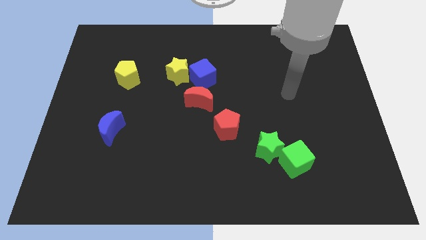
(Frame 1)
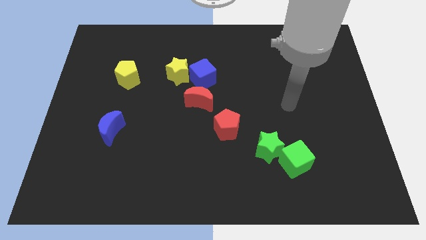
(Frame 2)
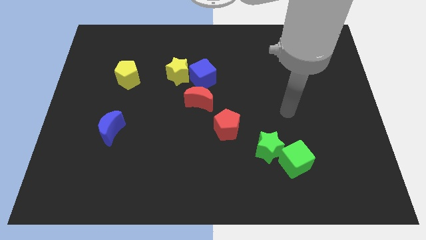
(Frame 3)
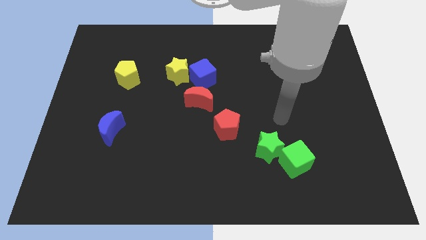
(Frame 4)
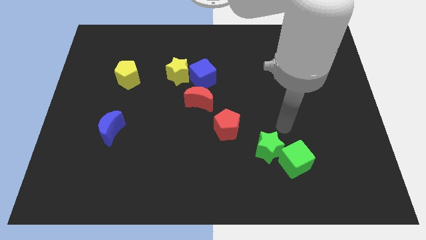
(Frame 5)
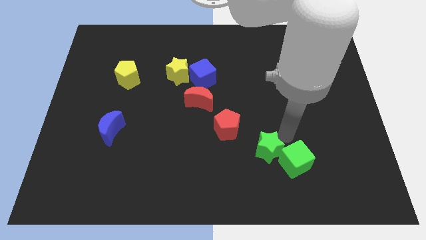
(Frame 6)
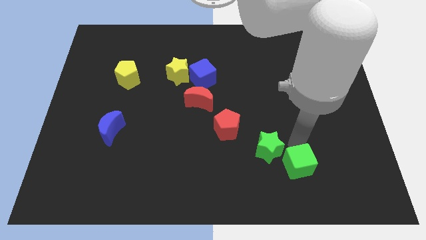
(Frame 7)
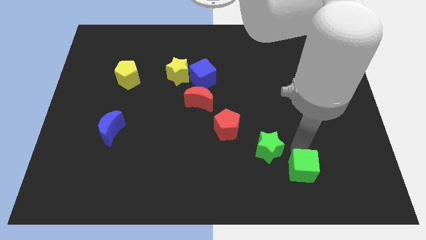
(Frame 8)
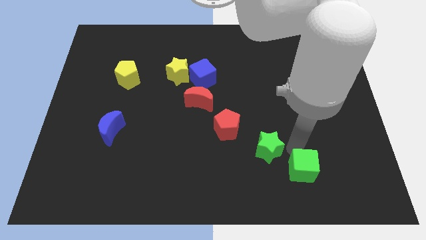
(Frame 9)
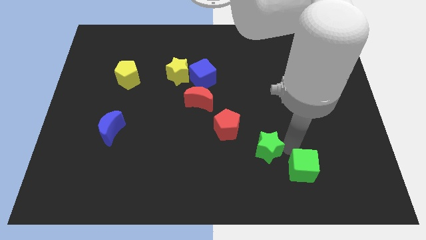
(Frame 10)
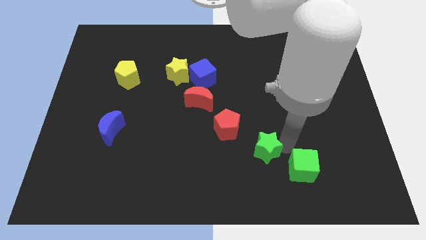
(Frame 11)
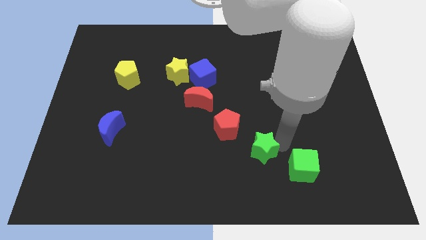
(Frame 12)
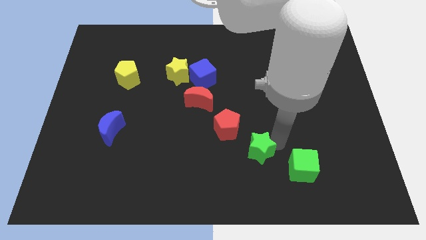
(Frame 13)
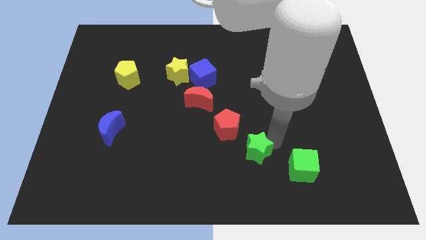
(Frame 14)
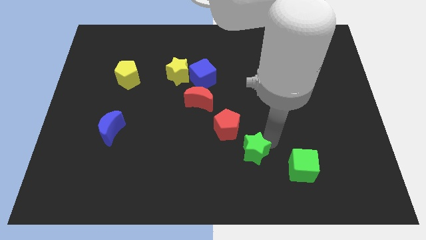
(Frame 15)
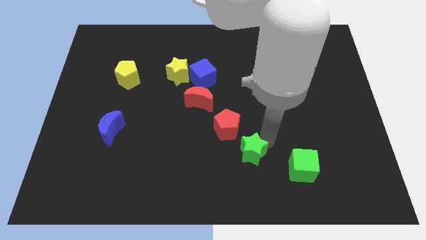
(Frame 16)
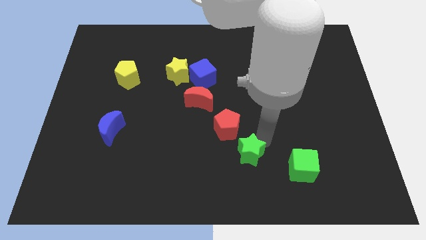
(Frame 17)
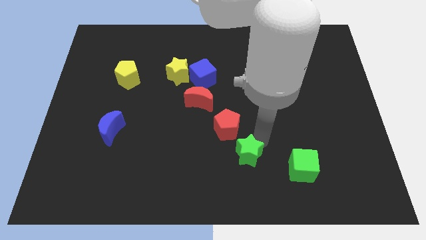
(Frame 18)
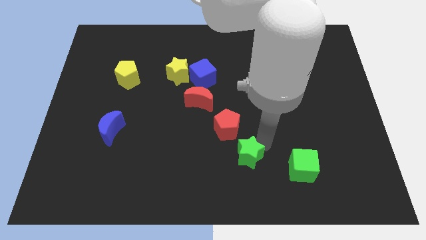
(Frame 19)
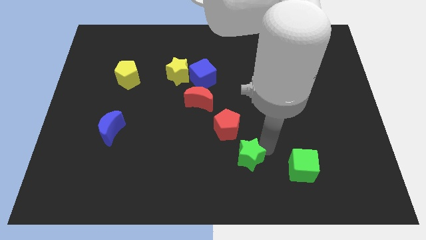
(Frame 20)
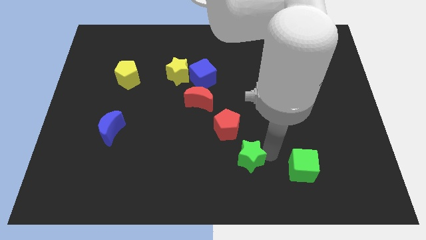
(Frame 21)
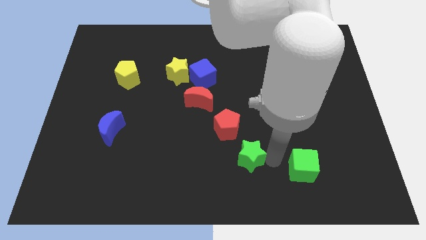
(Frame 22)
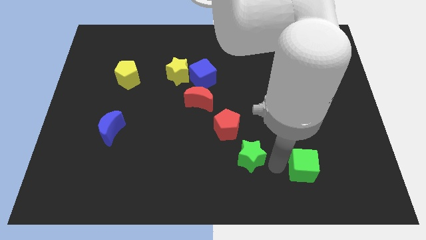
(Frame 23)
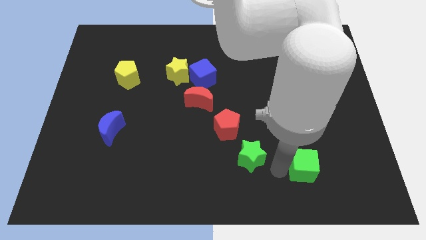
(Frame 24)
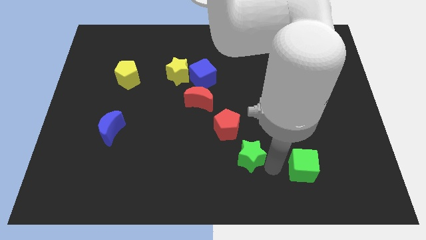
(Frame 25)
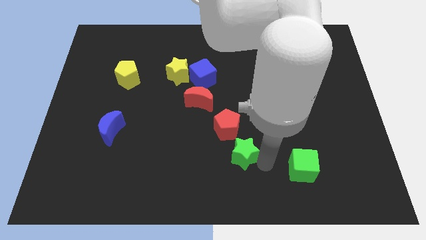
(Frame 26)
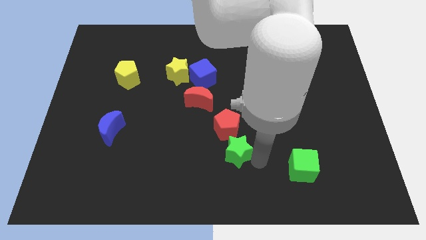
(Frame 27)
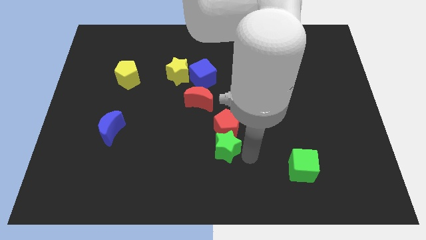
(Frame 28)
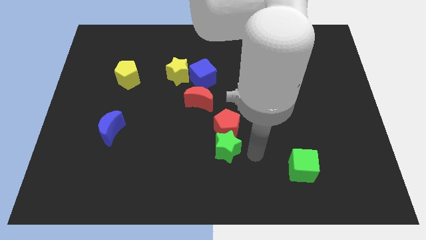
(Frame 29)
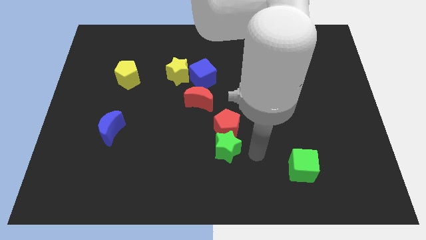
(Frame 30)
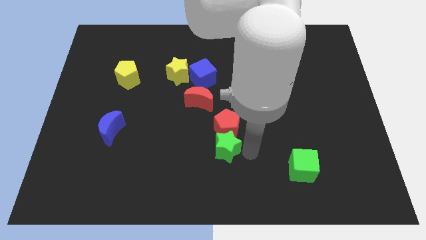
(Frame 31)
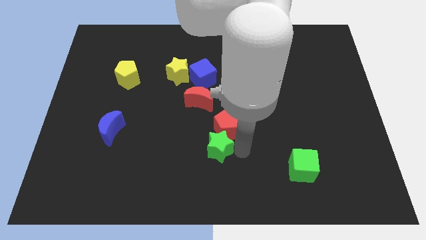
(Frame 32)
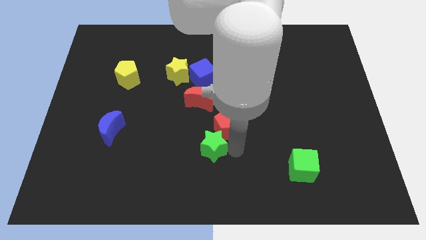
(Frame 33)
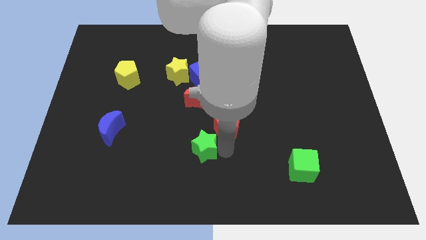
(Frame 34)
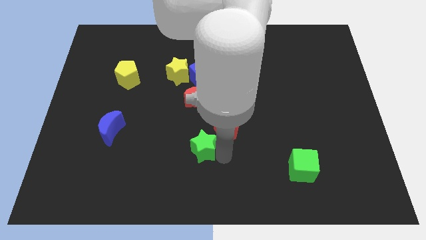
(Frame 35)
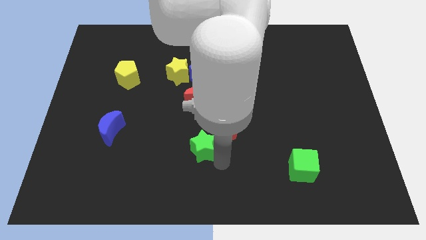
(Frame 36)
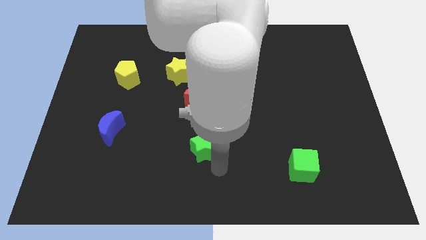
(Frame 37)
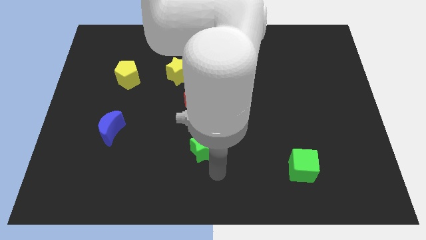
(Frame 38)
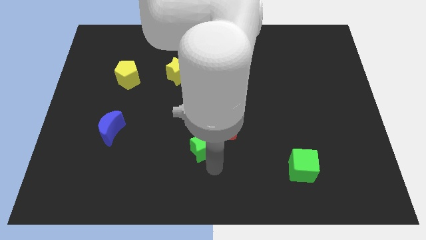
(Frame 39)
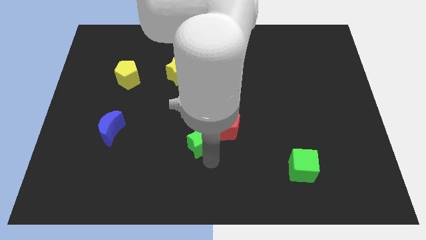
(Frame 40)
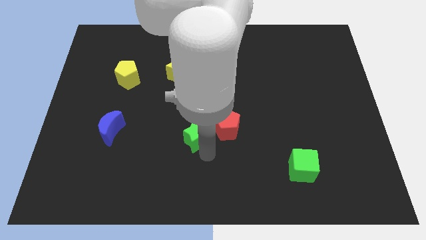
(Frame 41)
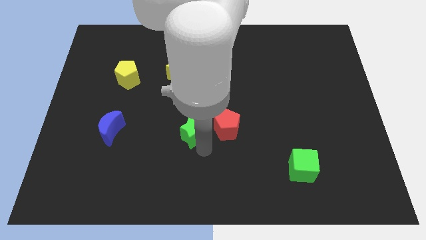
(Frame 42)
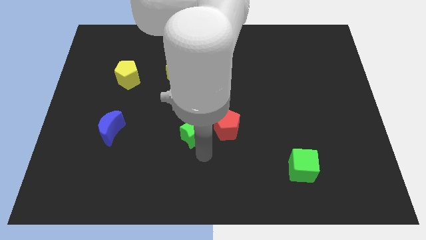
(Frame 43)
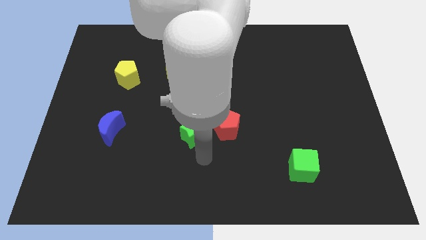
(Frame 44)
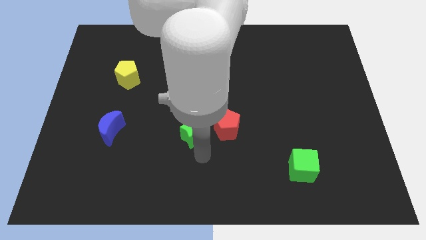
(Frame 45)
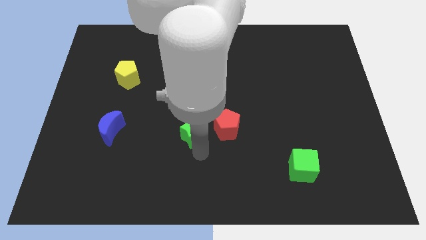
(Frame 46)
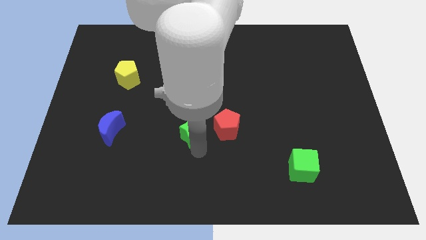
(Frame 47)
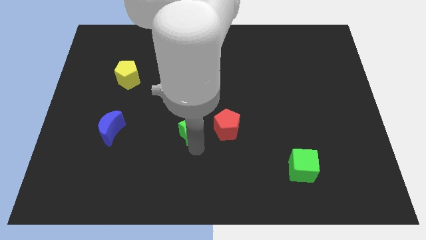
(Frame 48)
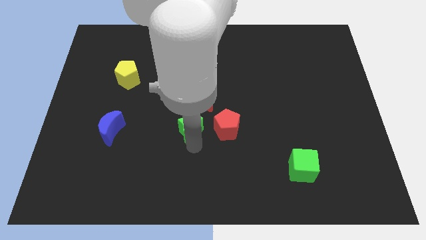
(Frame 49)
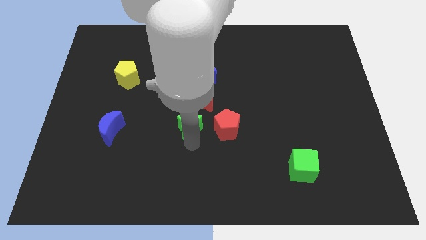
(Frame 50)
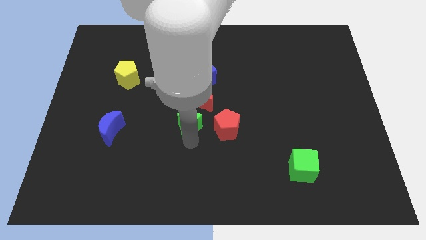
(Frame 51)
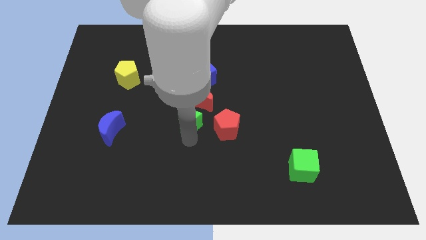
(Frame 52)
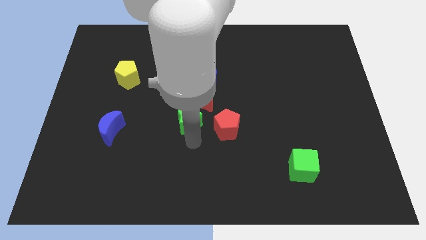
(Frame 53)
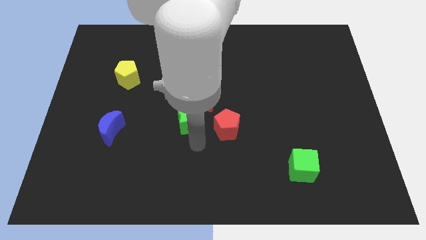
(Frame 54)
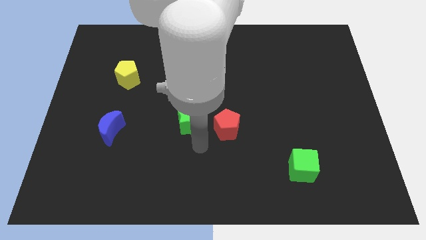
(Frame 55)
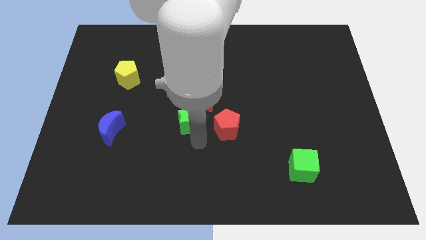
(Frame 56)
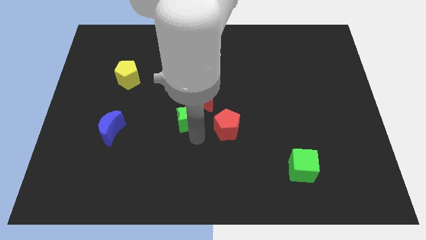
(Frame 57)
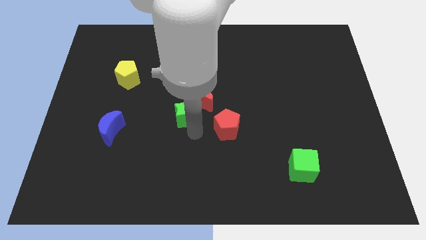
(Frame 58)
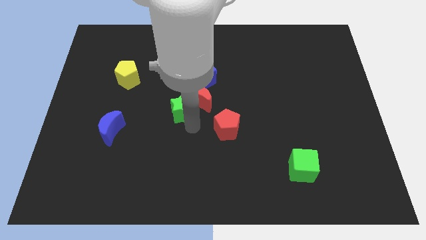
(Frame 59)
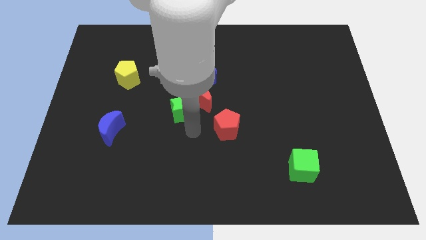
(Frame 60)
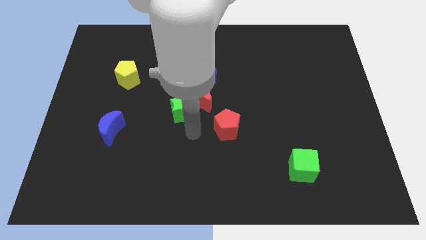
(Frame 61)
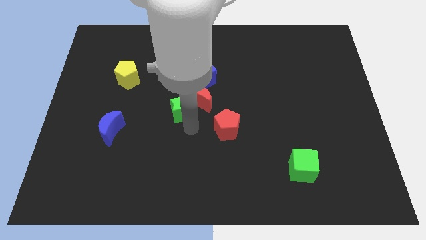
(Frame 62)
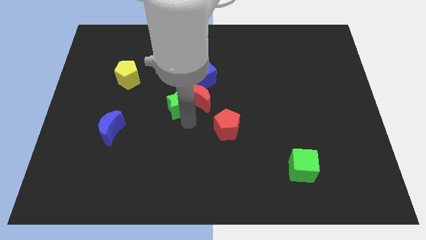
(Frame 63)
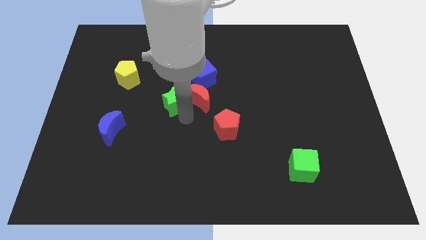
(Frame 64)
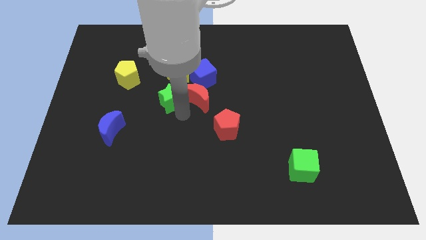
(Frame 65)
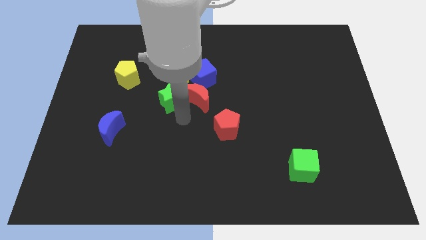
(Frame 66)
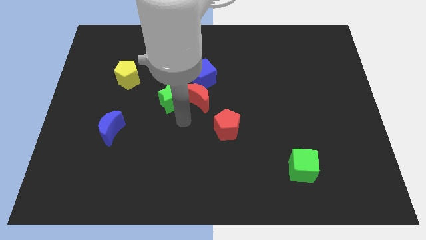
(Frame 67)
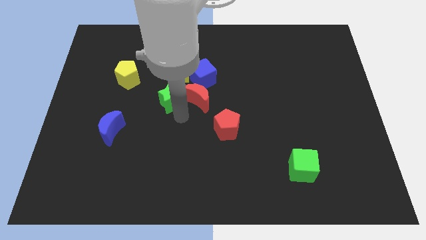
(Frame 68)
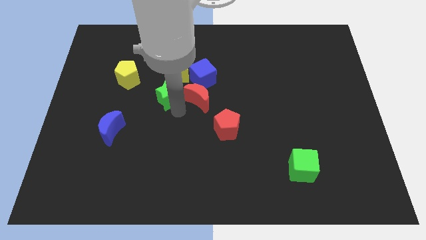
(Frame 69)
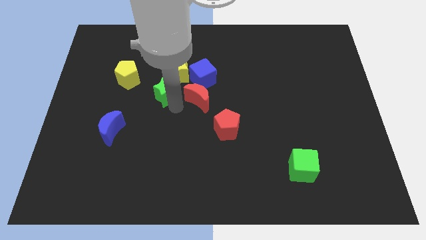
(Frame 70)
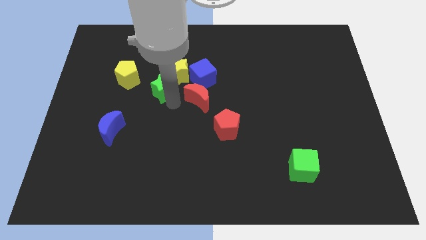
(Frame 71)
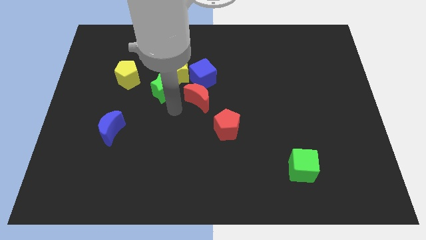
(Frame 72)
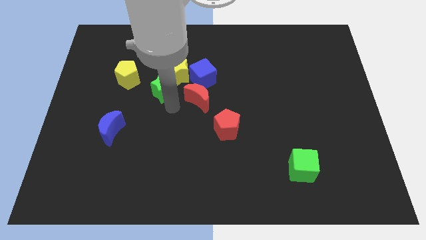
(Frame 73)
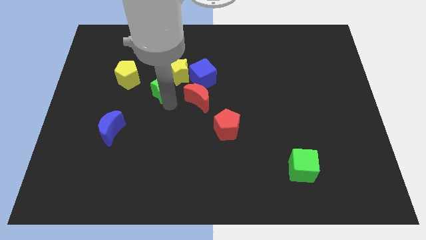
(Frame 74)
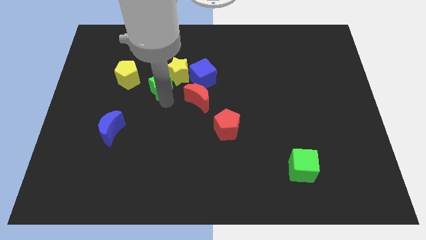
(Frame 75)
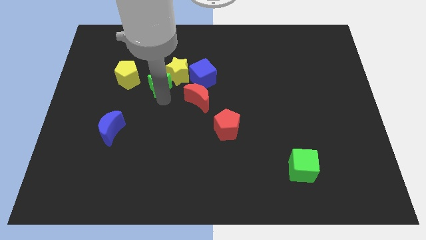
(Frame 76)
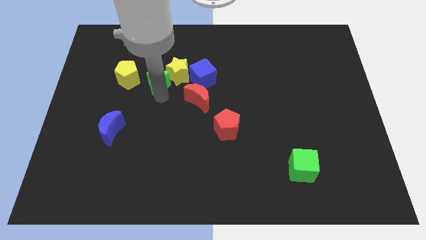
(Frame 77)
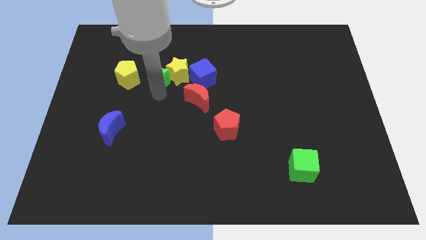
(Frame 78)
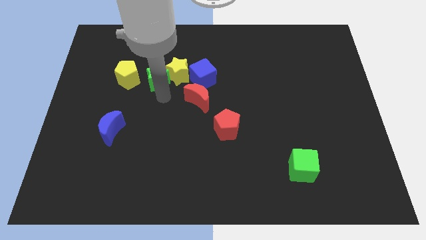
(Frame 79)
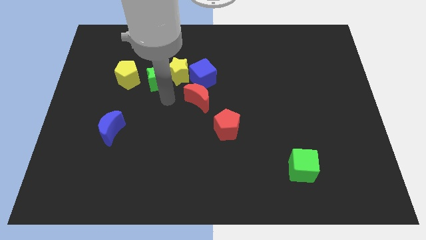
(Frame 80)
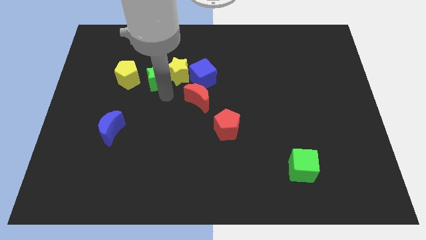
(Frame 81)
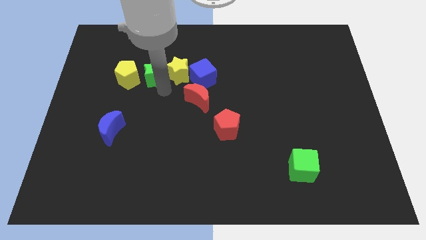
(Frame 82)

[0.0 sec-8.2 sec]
put the green star to the top right of the yellow pentagon
